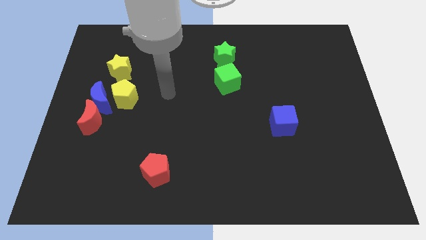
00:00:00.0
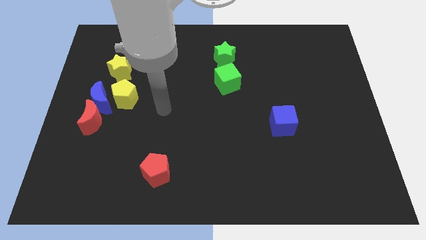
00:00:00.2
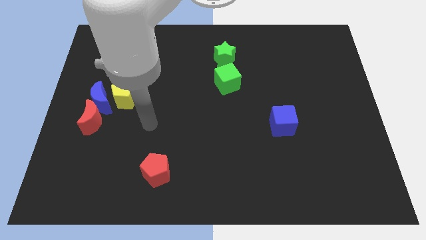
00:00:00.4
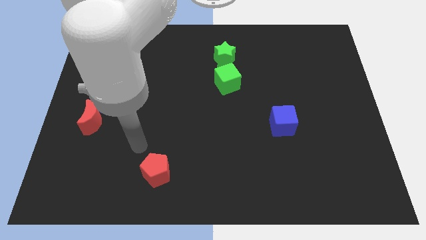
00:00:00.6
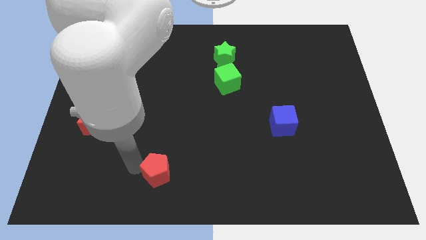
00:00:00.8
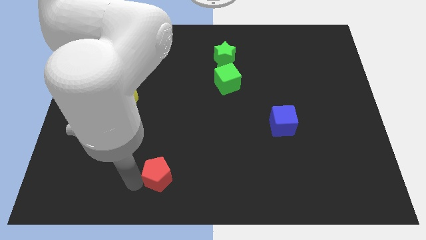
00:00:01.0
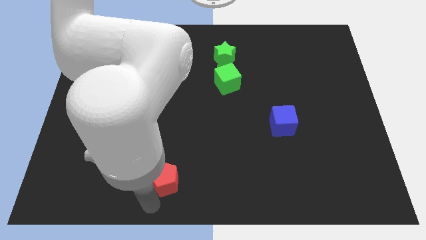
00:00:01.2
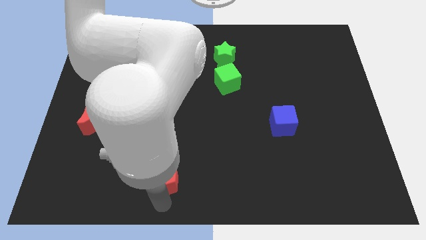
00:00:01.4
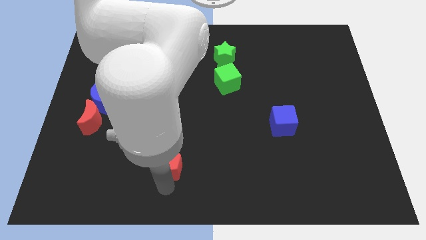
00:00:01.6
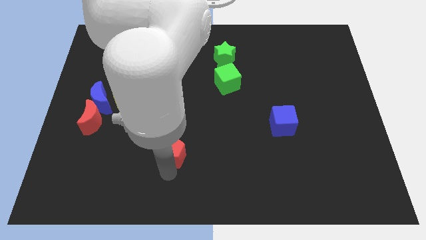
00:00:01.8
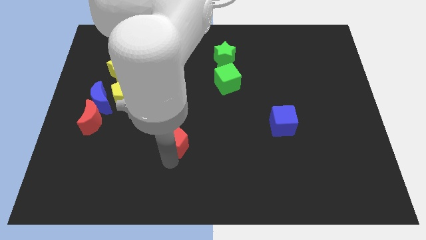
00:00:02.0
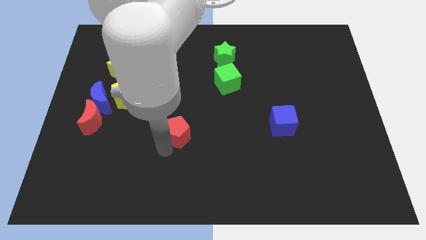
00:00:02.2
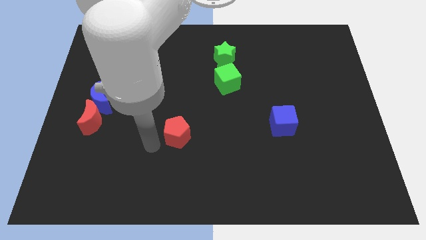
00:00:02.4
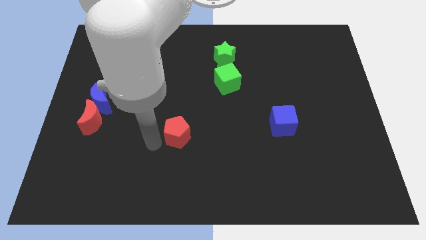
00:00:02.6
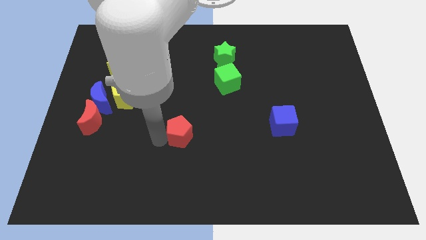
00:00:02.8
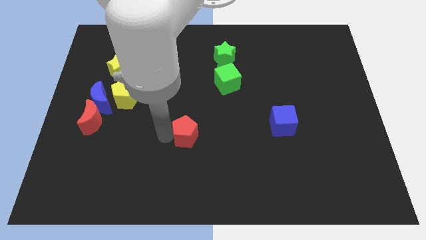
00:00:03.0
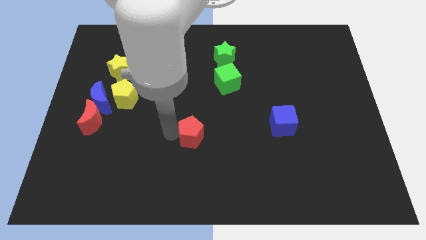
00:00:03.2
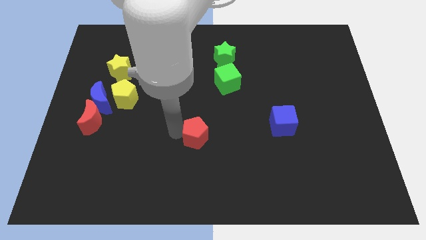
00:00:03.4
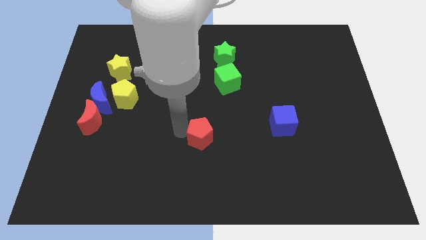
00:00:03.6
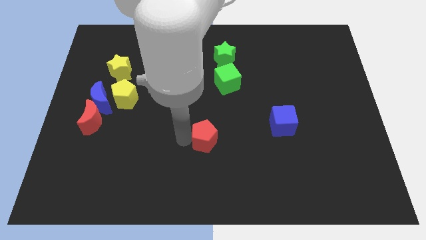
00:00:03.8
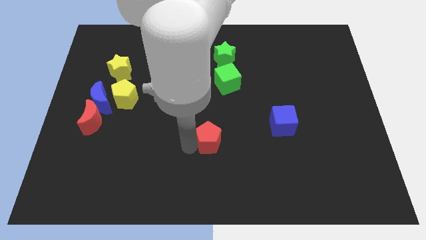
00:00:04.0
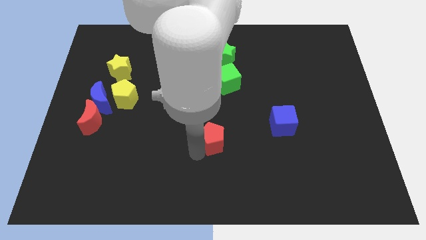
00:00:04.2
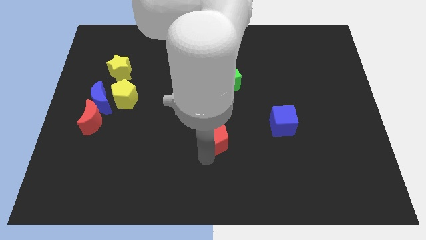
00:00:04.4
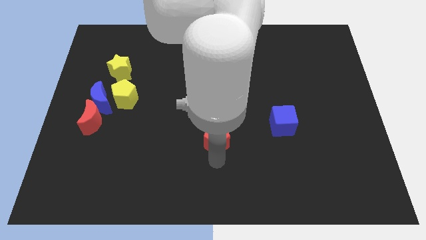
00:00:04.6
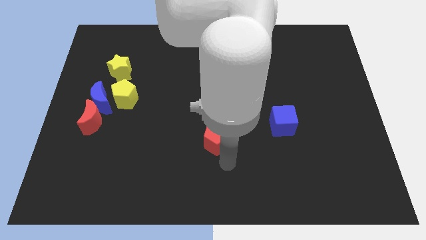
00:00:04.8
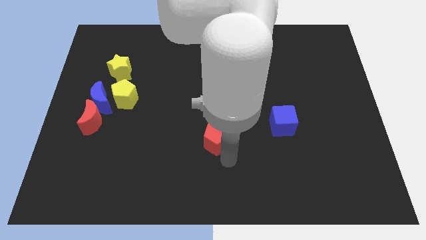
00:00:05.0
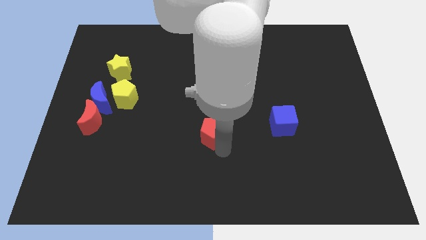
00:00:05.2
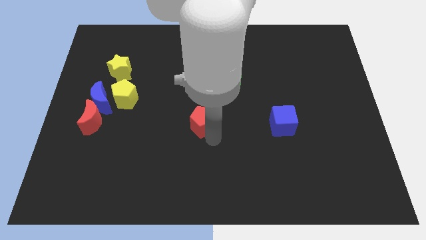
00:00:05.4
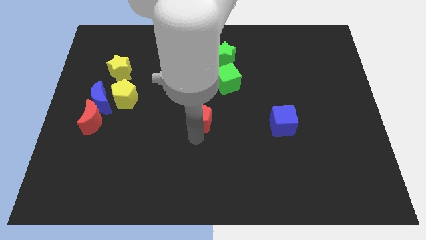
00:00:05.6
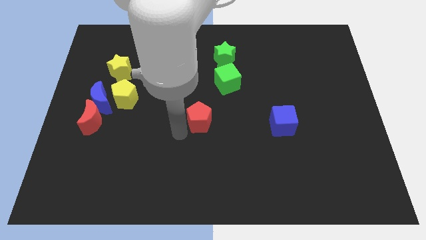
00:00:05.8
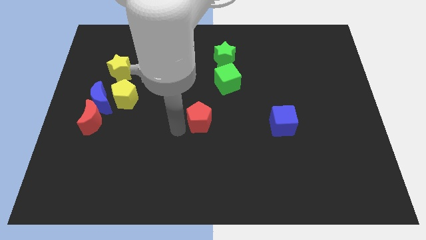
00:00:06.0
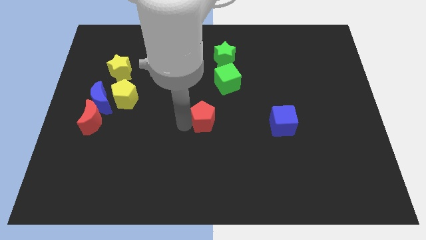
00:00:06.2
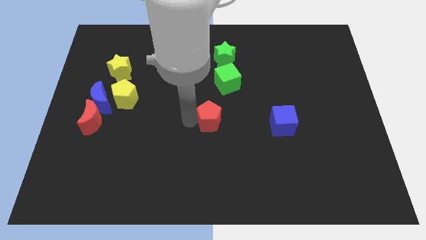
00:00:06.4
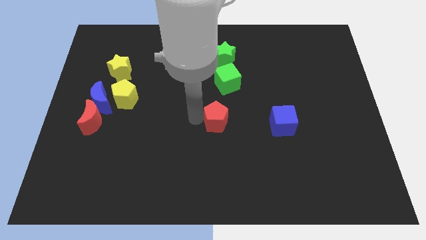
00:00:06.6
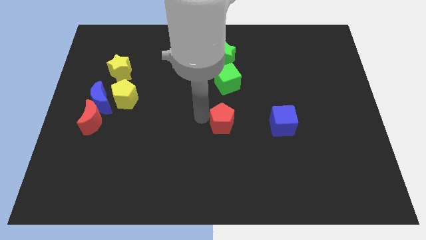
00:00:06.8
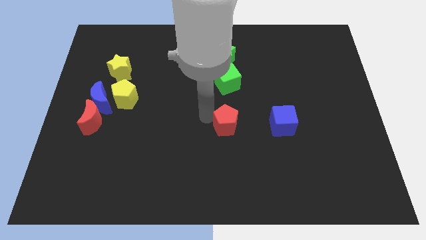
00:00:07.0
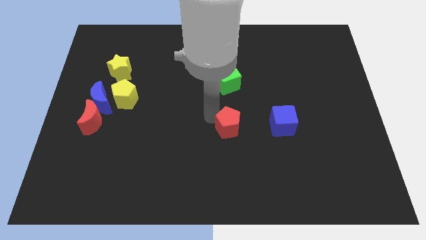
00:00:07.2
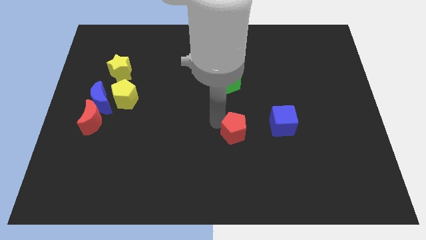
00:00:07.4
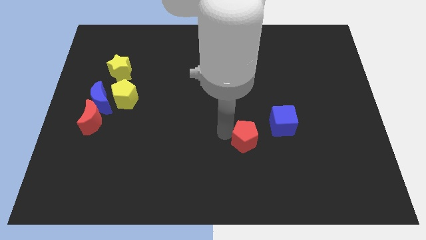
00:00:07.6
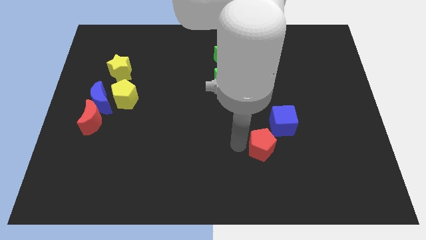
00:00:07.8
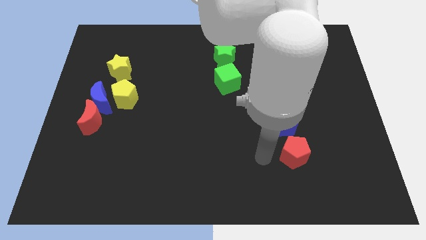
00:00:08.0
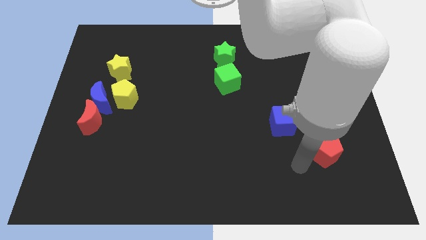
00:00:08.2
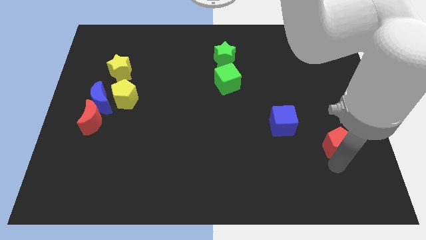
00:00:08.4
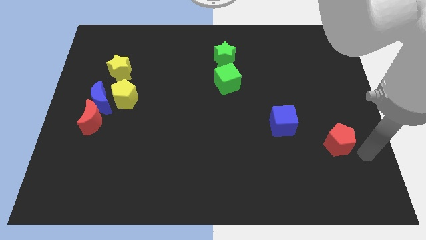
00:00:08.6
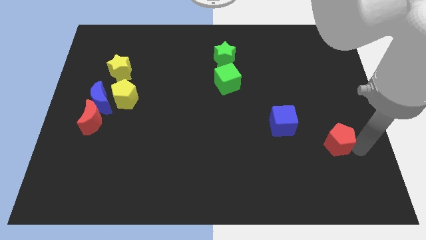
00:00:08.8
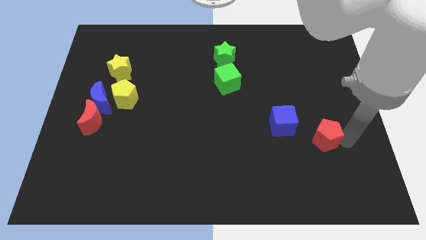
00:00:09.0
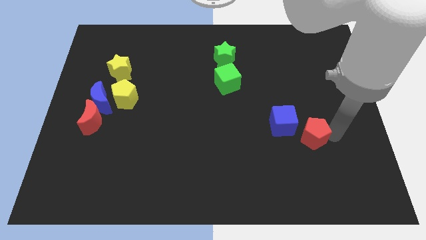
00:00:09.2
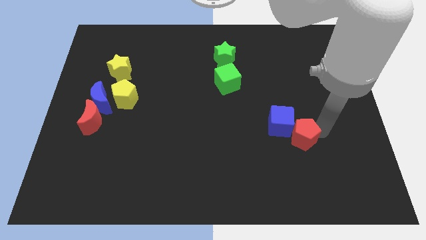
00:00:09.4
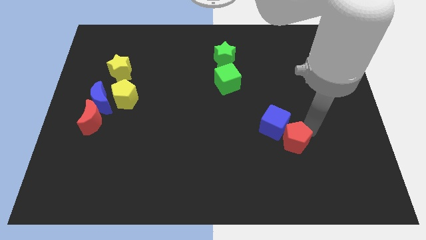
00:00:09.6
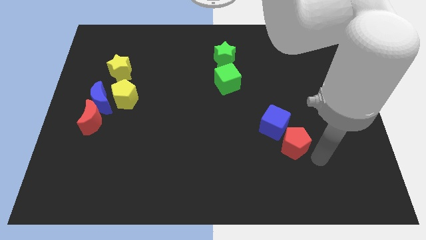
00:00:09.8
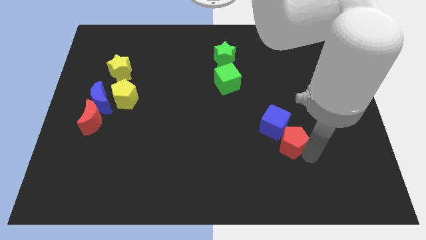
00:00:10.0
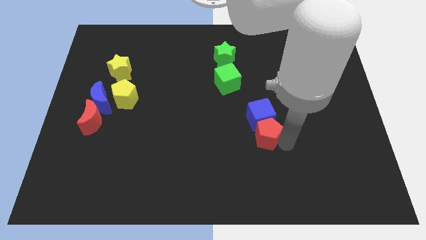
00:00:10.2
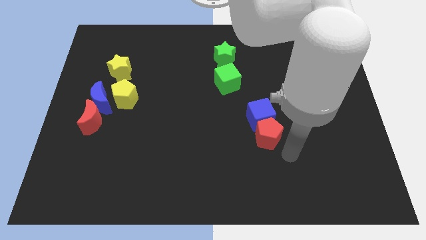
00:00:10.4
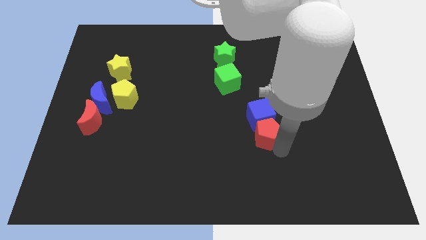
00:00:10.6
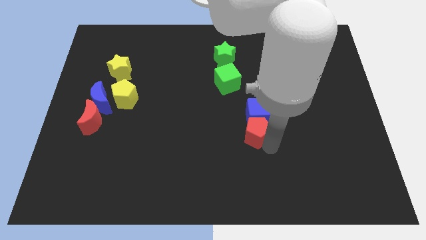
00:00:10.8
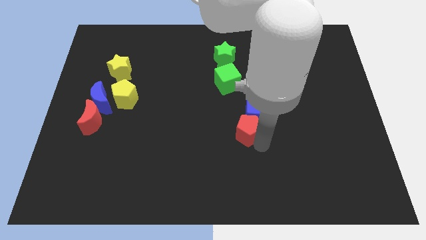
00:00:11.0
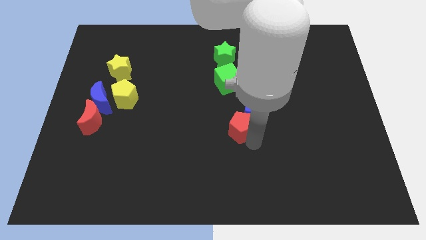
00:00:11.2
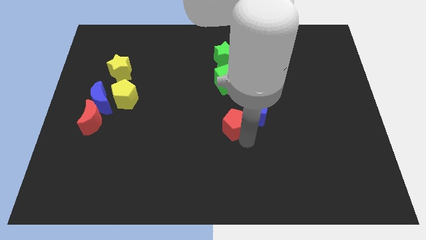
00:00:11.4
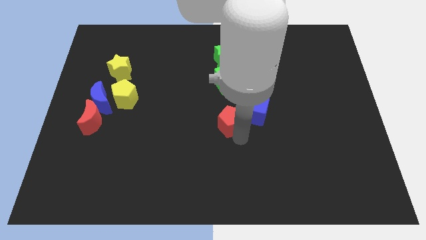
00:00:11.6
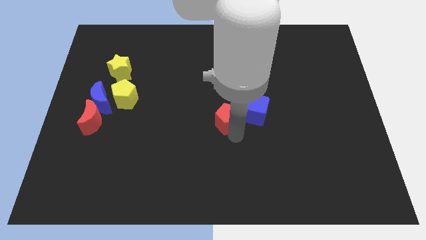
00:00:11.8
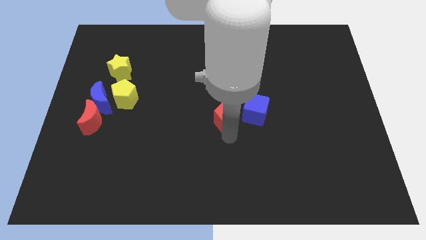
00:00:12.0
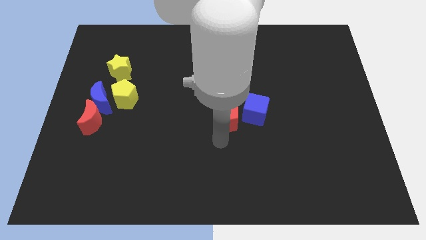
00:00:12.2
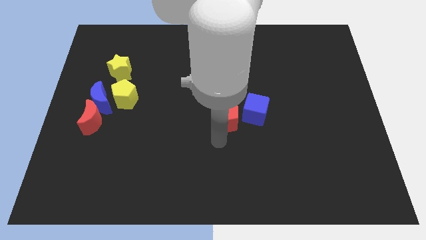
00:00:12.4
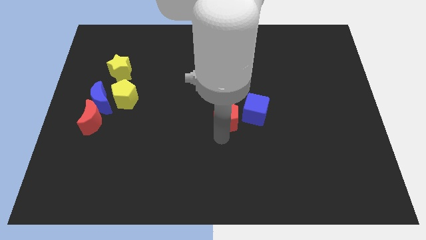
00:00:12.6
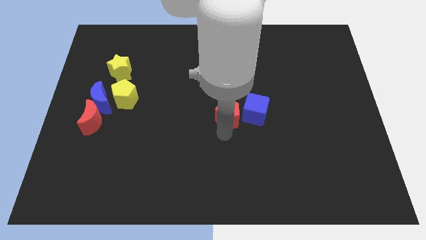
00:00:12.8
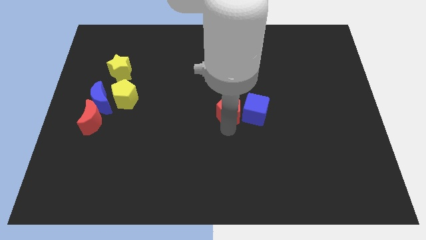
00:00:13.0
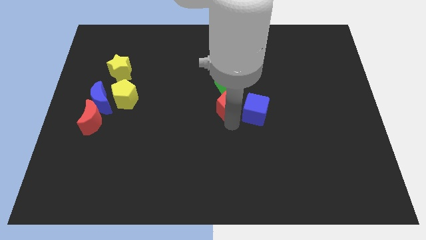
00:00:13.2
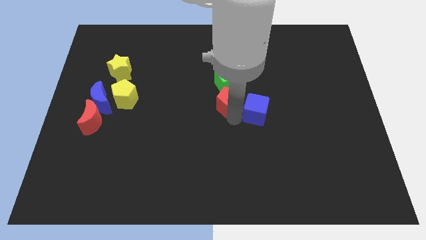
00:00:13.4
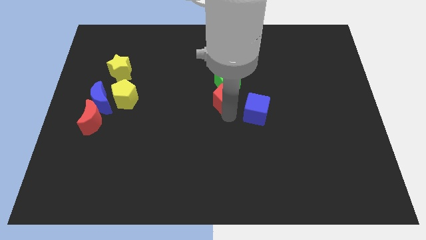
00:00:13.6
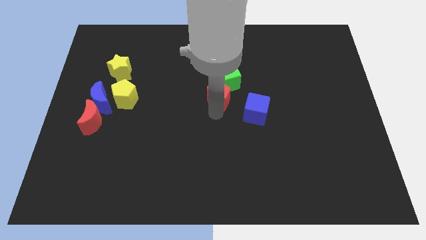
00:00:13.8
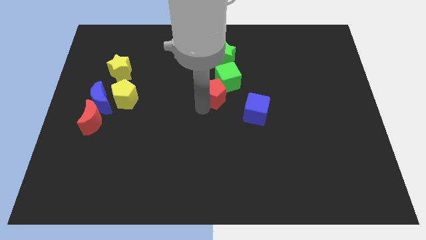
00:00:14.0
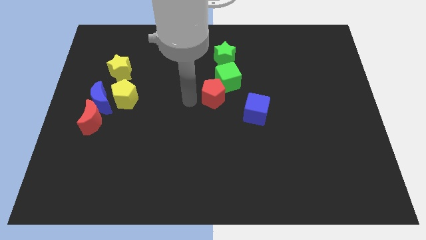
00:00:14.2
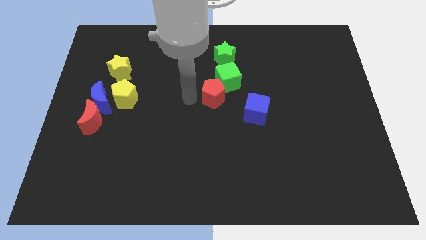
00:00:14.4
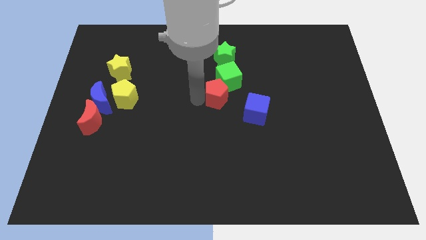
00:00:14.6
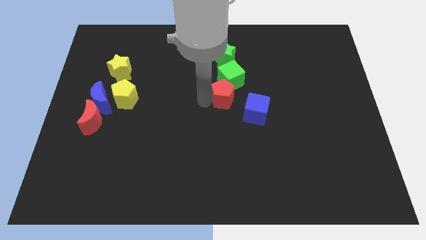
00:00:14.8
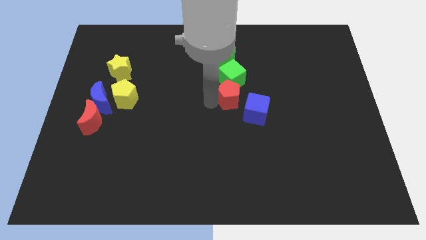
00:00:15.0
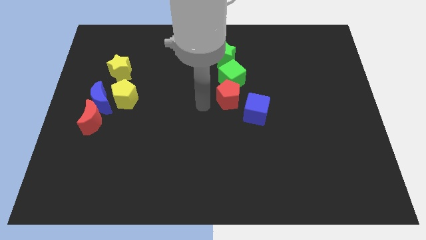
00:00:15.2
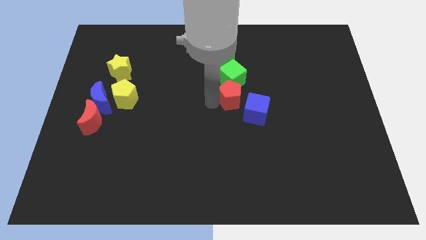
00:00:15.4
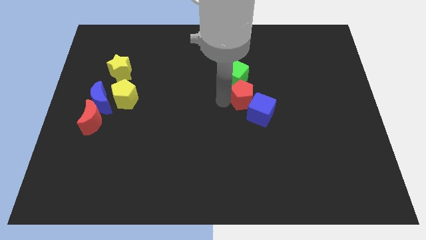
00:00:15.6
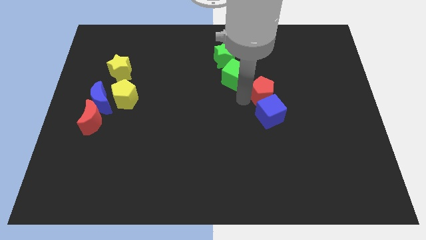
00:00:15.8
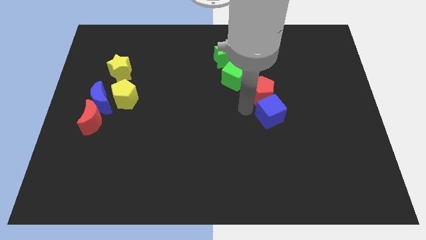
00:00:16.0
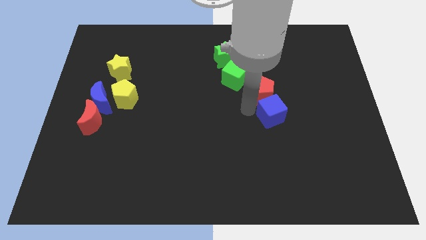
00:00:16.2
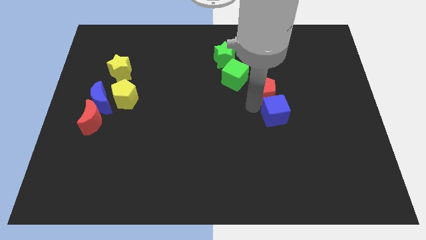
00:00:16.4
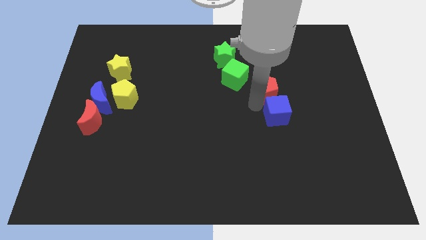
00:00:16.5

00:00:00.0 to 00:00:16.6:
put the red pentagon to the right side of the green cube
